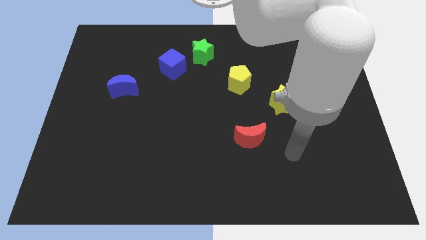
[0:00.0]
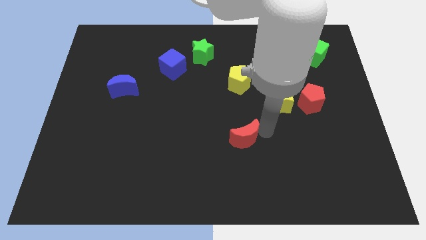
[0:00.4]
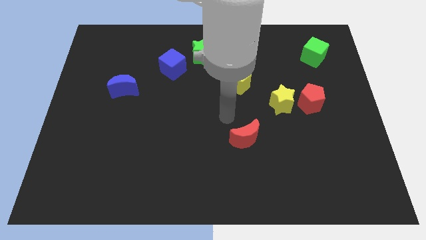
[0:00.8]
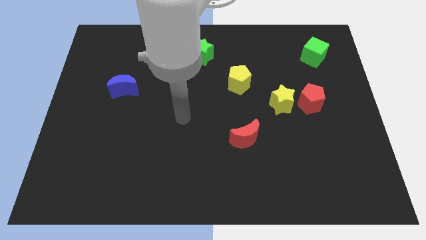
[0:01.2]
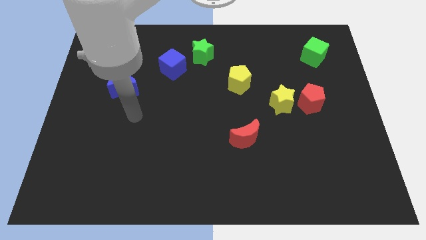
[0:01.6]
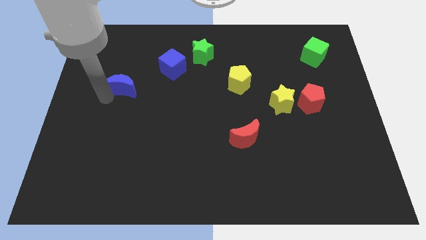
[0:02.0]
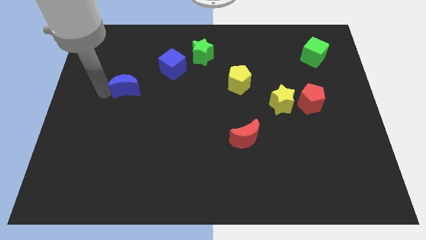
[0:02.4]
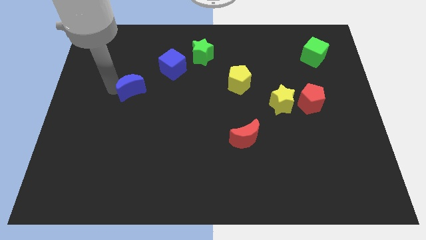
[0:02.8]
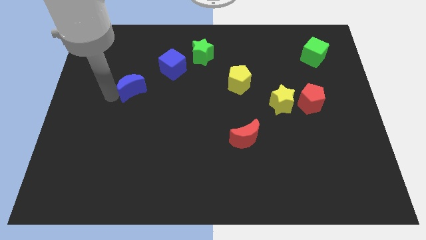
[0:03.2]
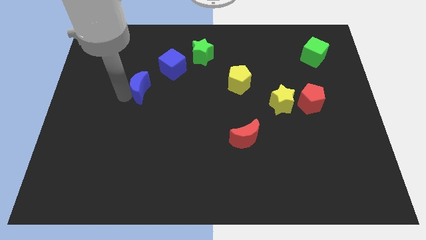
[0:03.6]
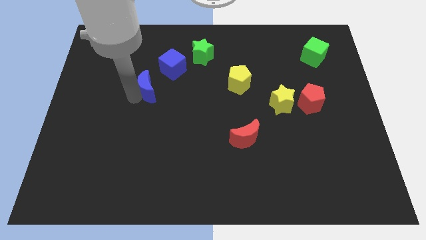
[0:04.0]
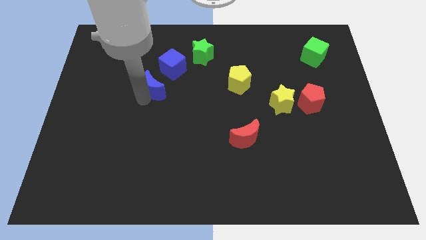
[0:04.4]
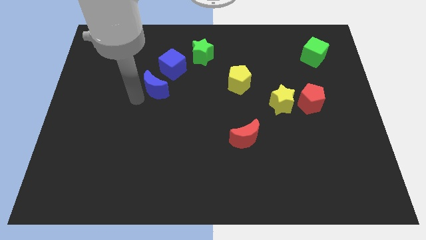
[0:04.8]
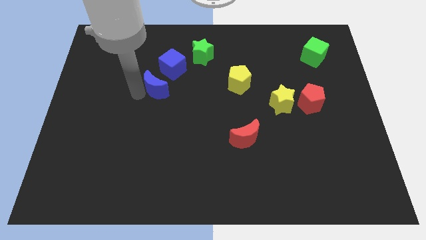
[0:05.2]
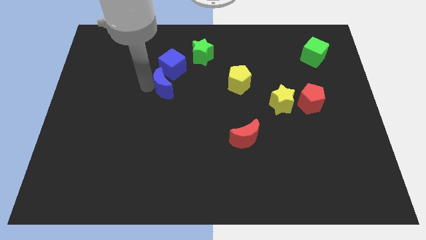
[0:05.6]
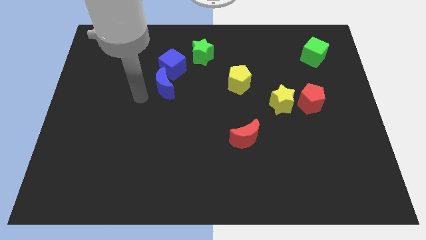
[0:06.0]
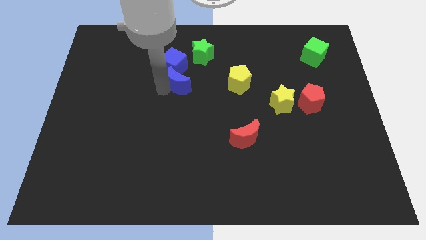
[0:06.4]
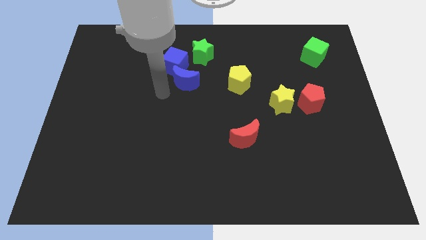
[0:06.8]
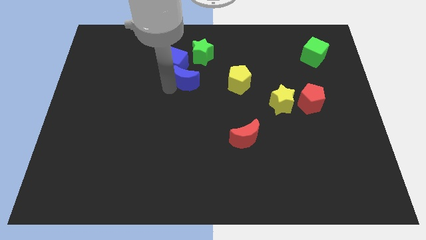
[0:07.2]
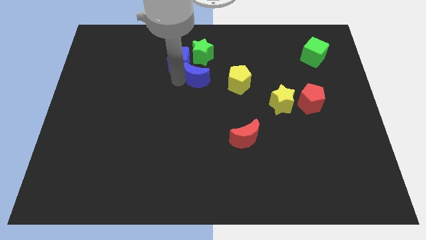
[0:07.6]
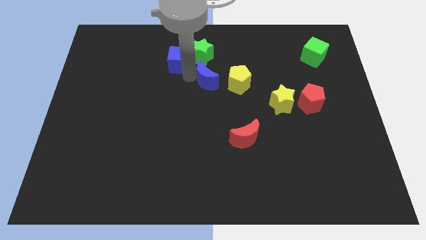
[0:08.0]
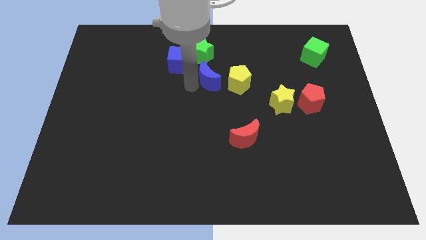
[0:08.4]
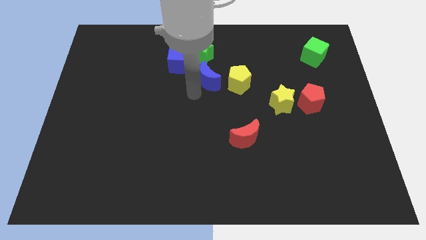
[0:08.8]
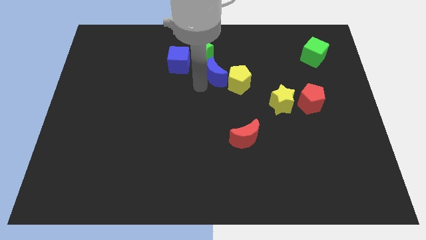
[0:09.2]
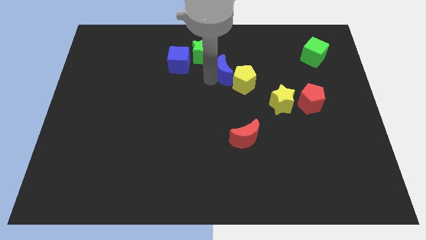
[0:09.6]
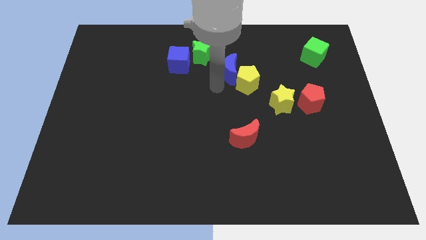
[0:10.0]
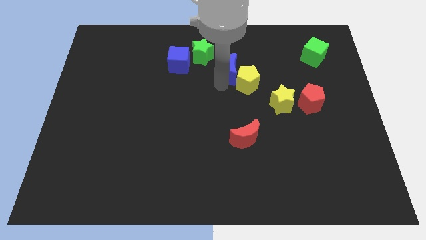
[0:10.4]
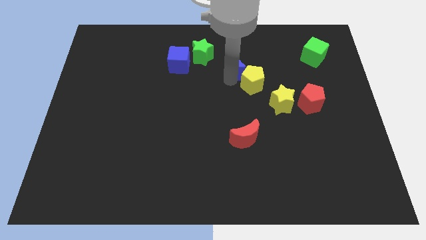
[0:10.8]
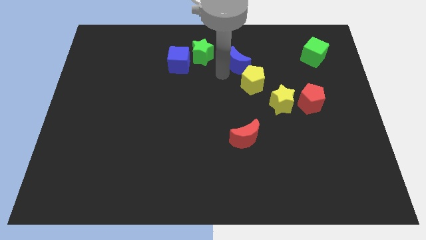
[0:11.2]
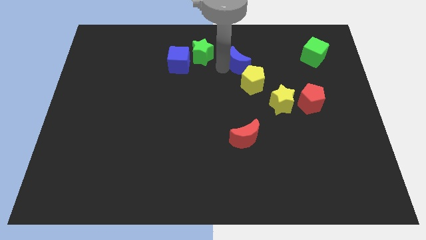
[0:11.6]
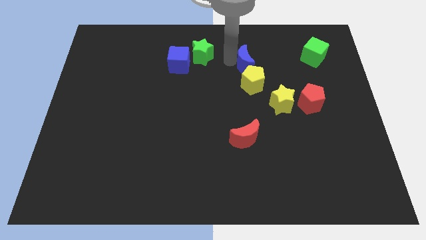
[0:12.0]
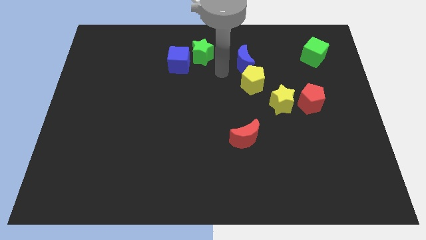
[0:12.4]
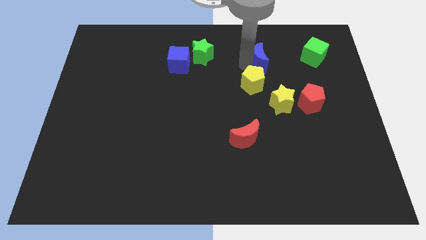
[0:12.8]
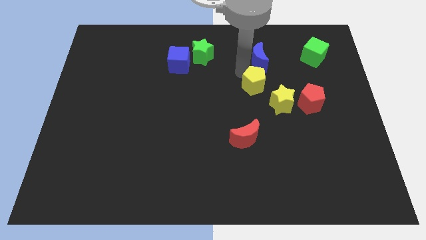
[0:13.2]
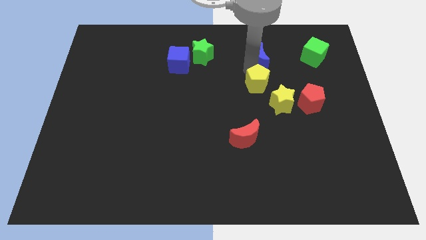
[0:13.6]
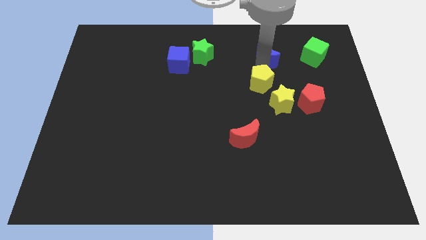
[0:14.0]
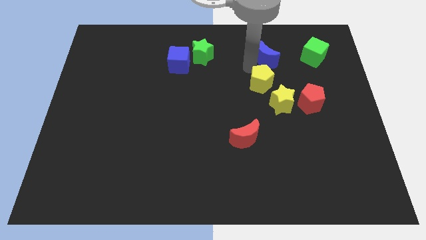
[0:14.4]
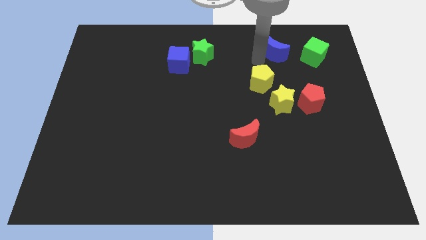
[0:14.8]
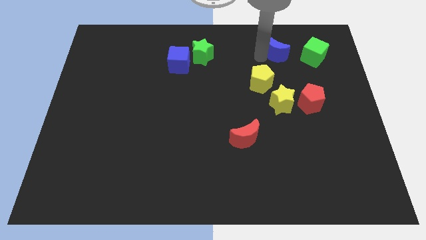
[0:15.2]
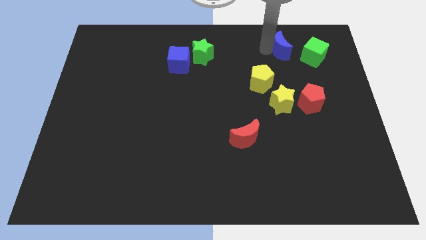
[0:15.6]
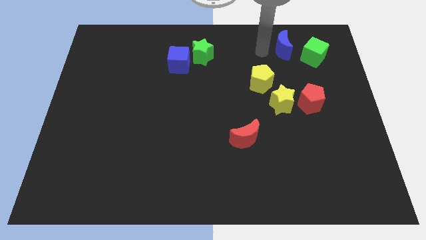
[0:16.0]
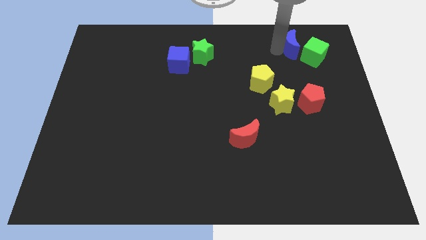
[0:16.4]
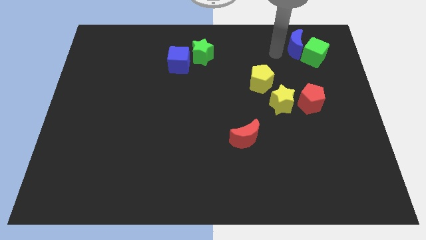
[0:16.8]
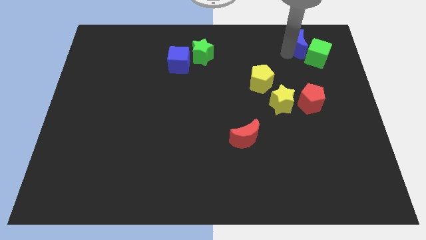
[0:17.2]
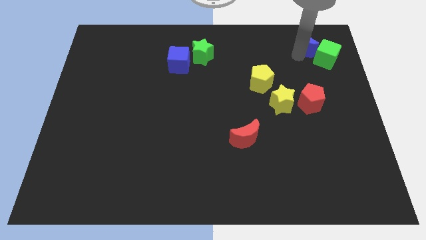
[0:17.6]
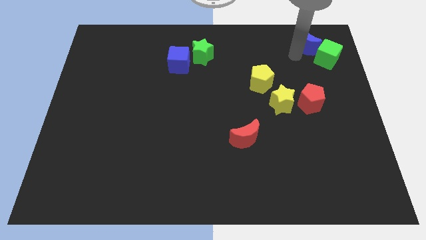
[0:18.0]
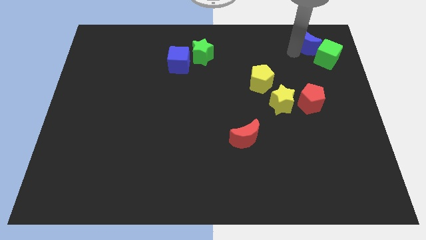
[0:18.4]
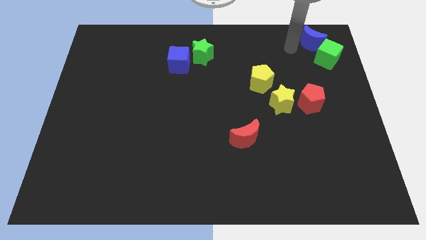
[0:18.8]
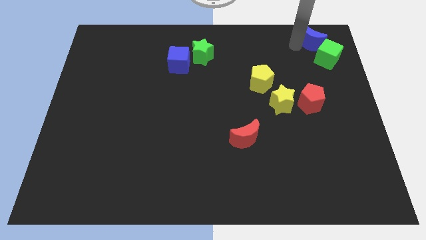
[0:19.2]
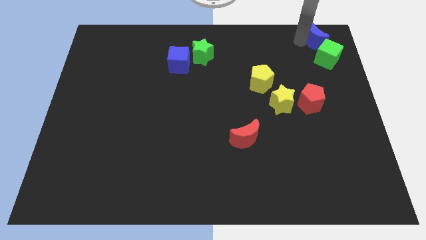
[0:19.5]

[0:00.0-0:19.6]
slide the blue moon to the upper right corner

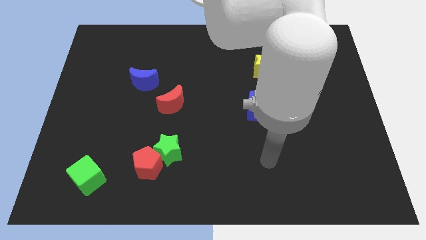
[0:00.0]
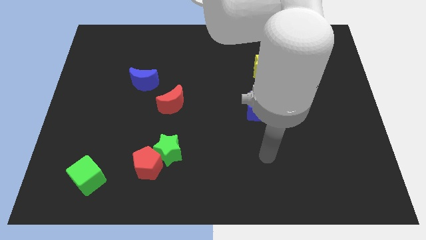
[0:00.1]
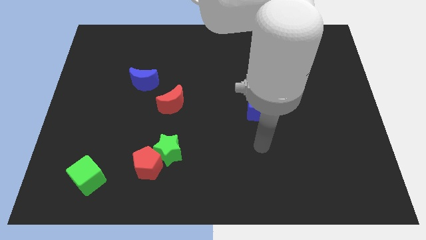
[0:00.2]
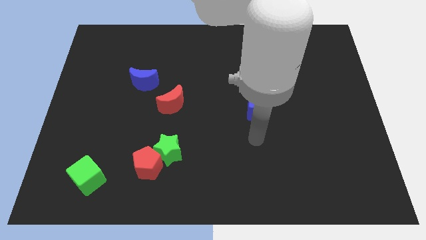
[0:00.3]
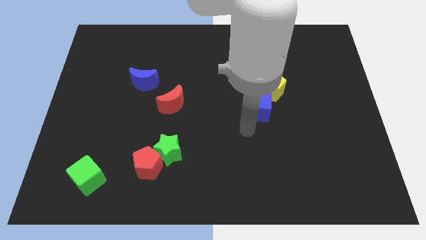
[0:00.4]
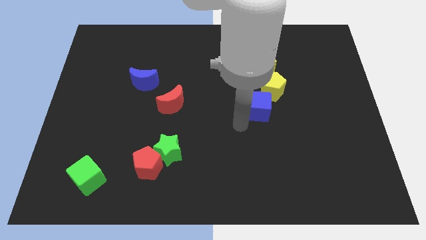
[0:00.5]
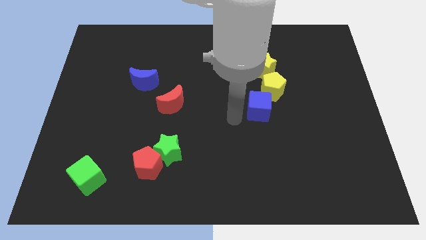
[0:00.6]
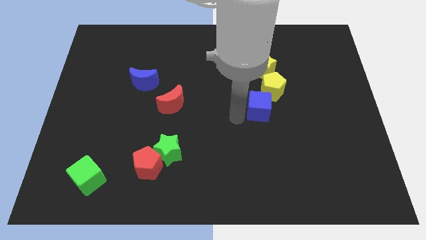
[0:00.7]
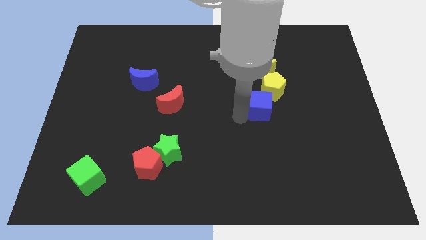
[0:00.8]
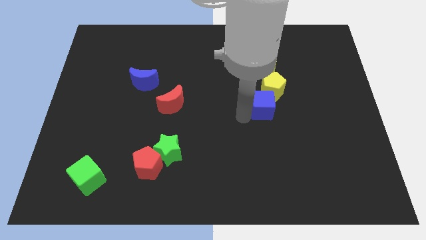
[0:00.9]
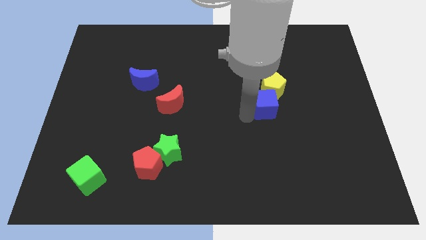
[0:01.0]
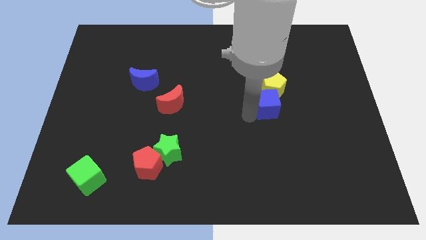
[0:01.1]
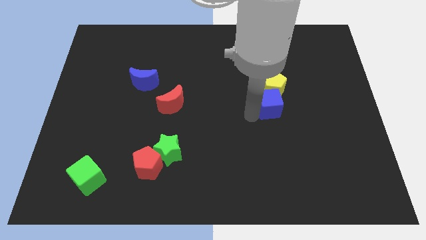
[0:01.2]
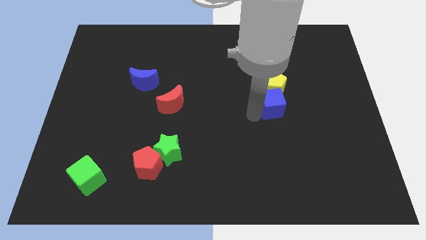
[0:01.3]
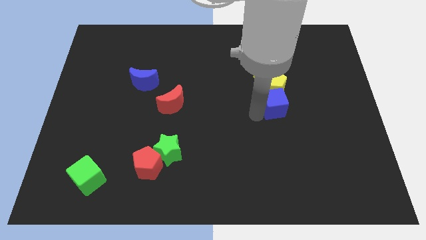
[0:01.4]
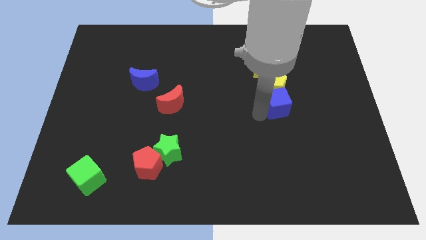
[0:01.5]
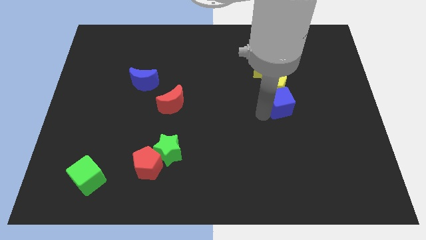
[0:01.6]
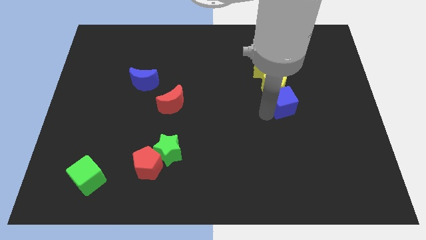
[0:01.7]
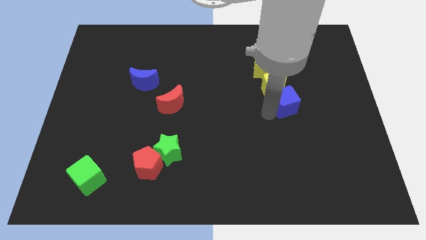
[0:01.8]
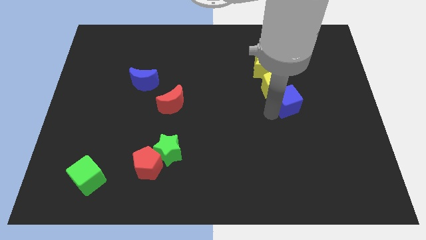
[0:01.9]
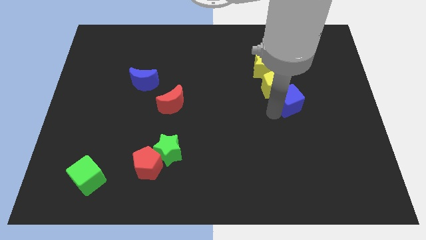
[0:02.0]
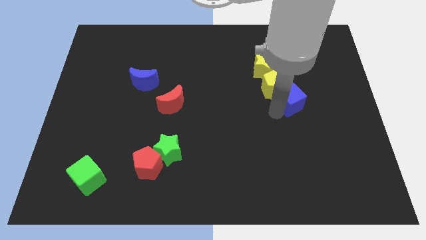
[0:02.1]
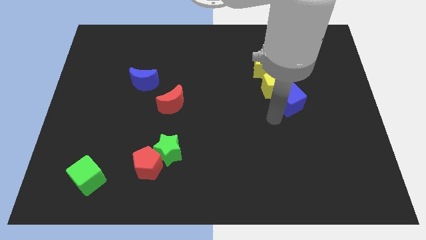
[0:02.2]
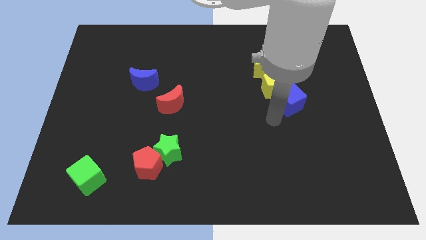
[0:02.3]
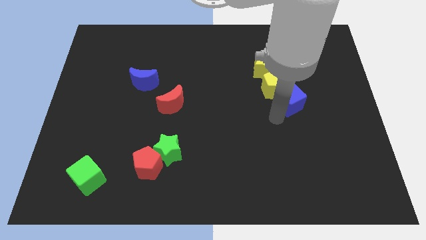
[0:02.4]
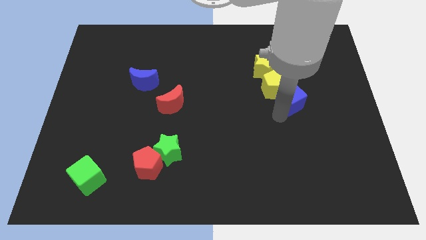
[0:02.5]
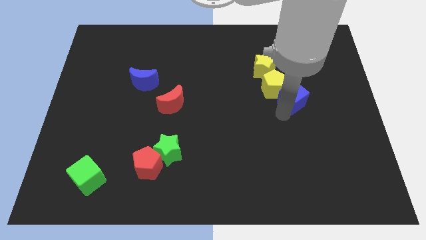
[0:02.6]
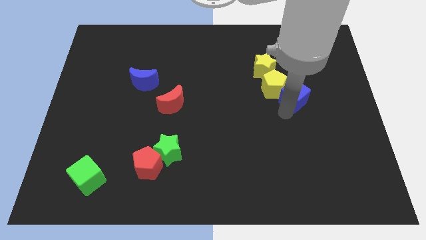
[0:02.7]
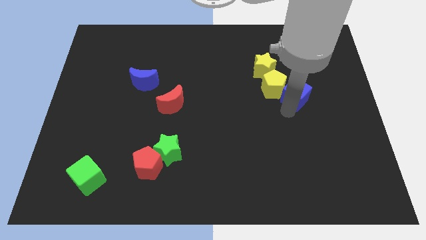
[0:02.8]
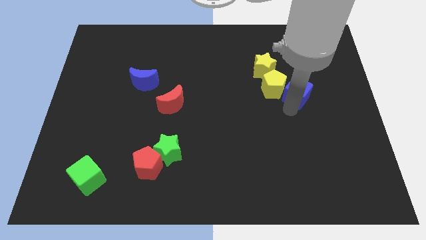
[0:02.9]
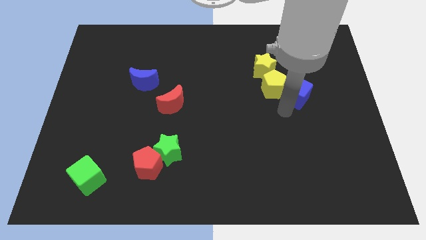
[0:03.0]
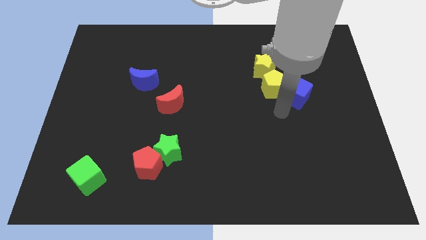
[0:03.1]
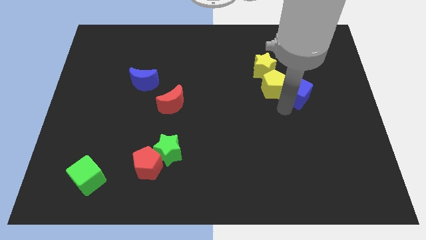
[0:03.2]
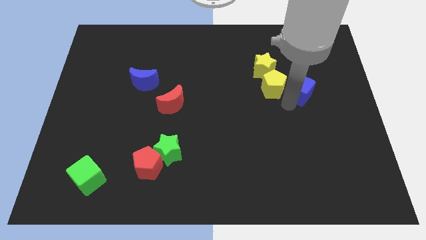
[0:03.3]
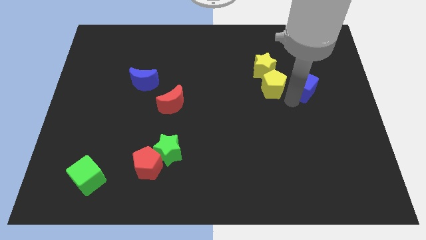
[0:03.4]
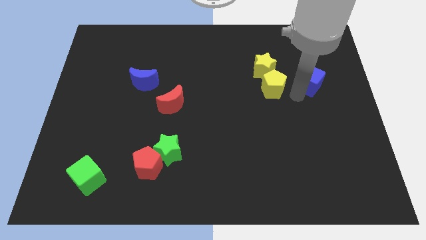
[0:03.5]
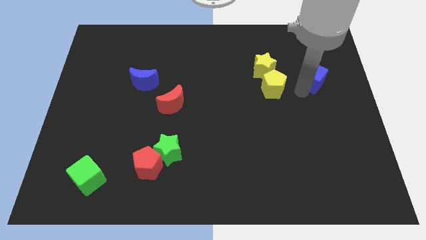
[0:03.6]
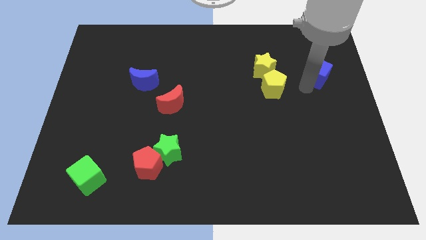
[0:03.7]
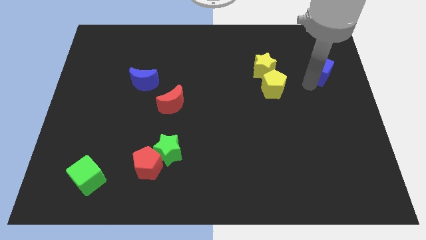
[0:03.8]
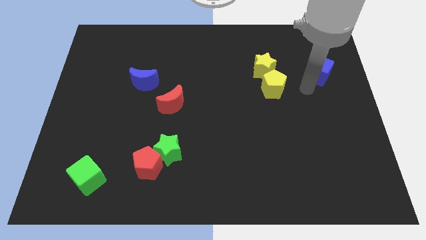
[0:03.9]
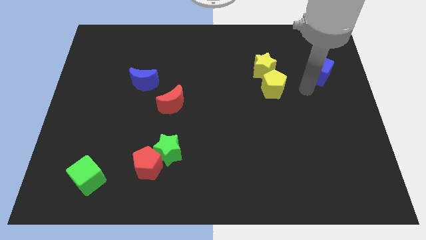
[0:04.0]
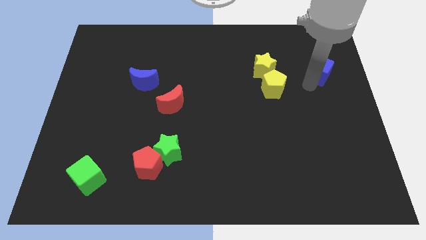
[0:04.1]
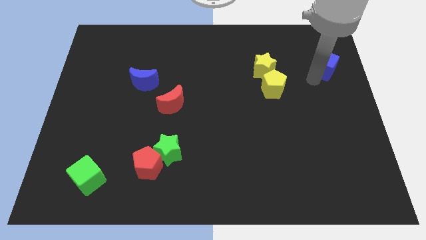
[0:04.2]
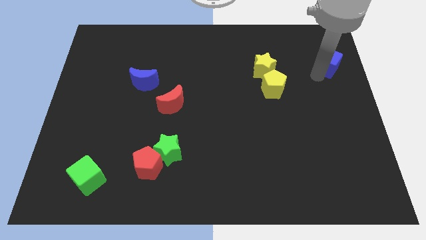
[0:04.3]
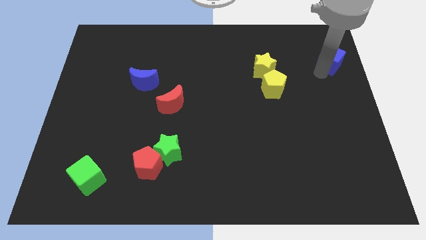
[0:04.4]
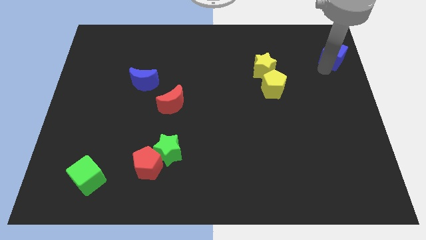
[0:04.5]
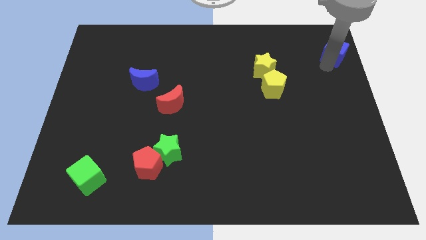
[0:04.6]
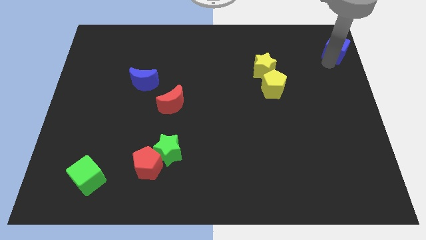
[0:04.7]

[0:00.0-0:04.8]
move the blue cube to the upper right corner
